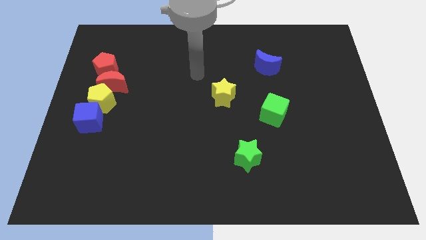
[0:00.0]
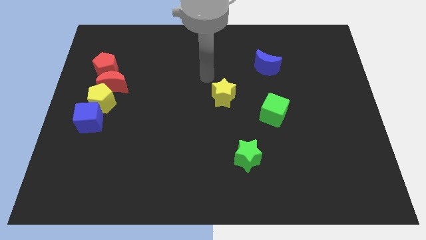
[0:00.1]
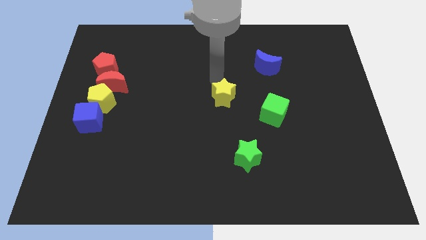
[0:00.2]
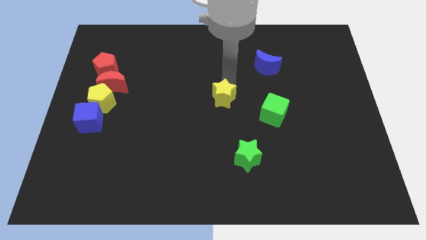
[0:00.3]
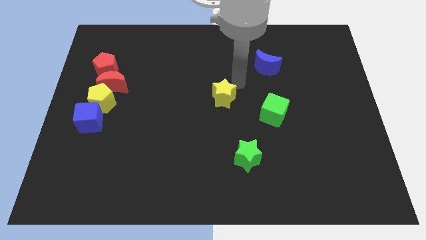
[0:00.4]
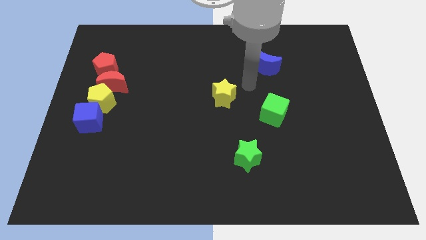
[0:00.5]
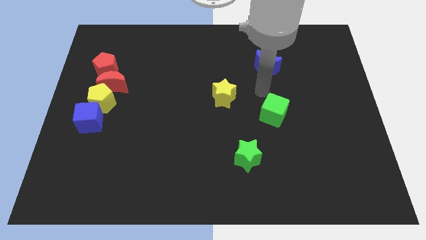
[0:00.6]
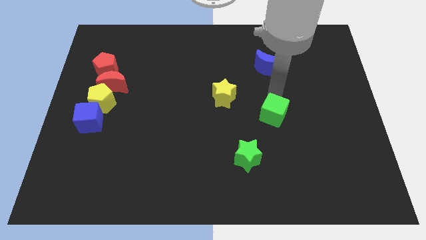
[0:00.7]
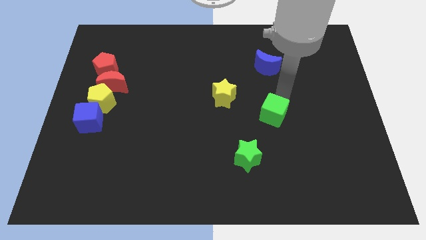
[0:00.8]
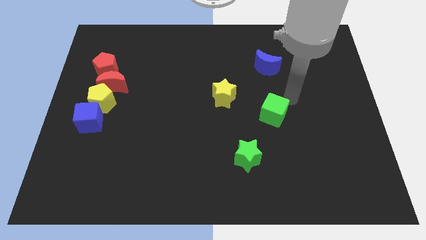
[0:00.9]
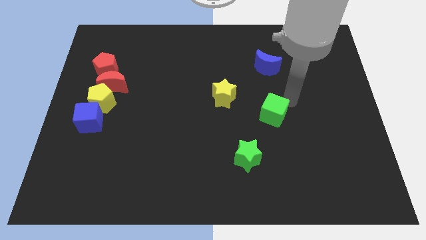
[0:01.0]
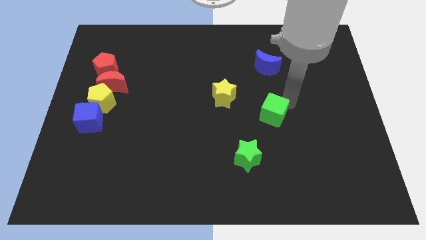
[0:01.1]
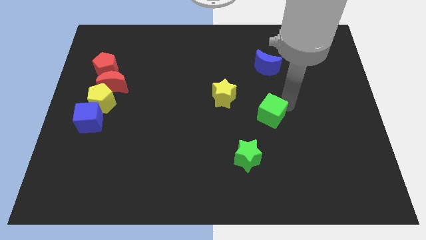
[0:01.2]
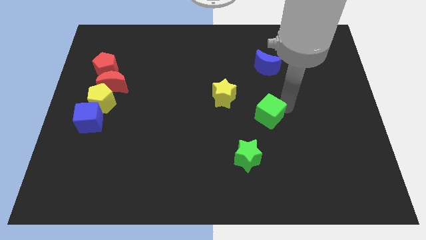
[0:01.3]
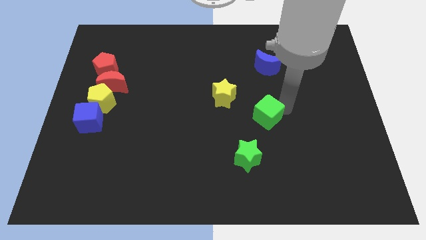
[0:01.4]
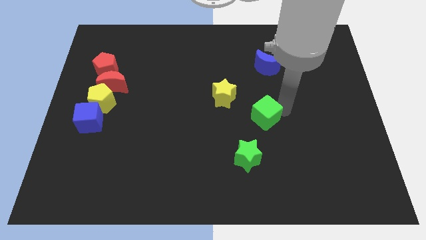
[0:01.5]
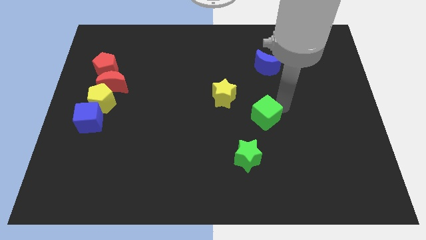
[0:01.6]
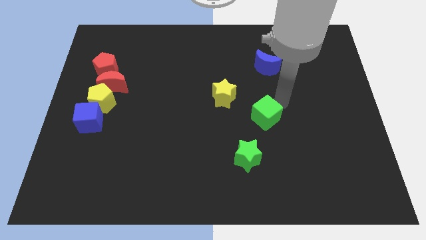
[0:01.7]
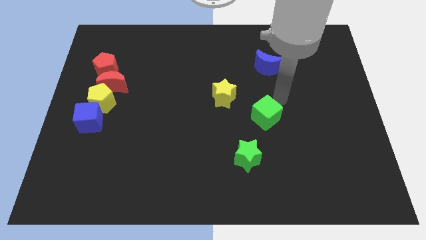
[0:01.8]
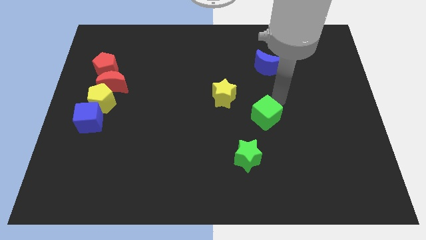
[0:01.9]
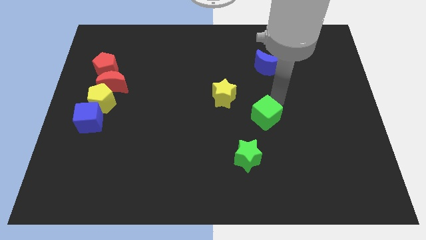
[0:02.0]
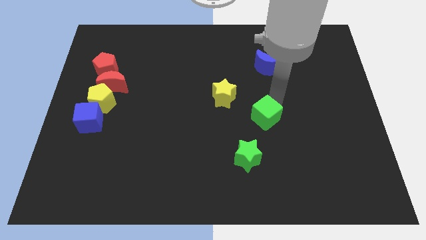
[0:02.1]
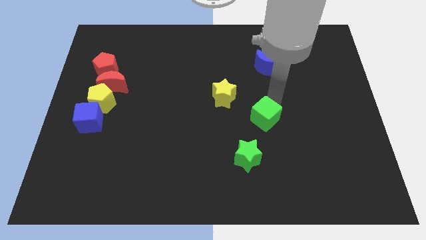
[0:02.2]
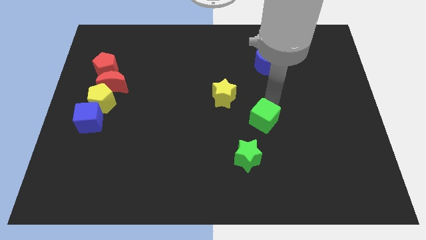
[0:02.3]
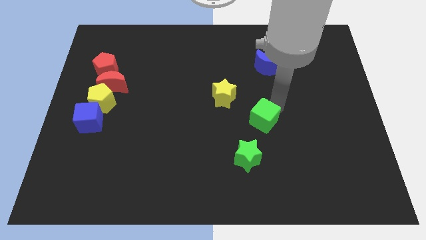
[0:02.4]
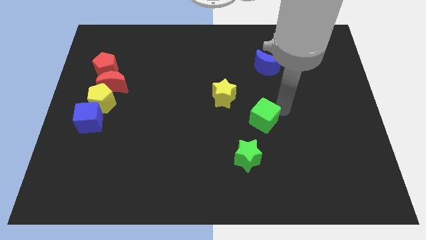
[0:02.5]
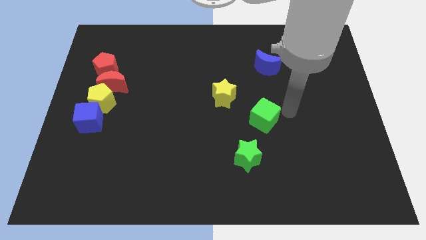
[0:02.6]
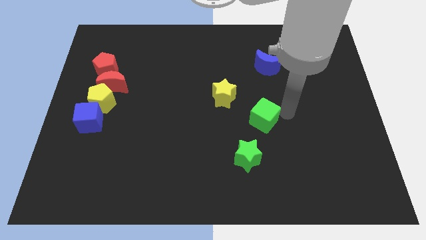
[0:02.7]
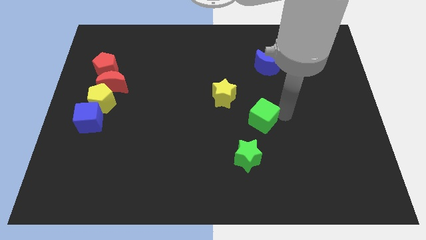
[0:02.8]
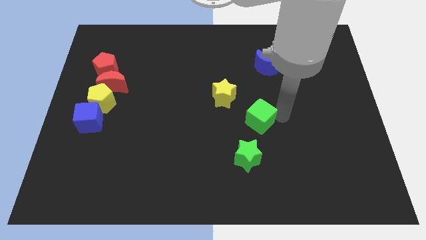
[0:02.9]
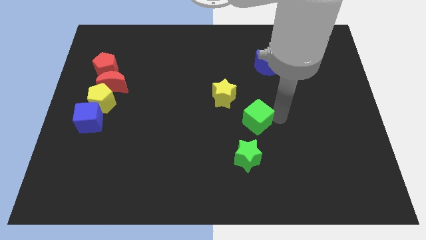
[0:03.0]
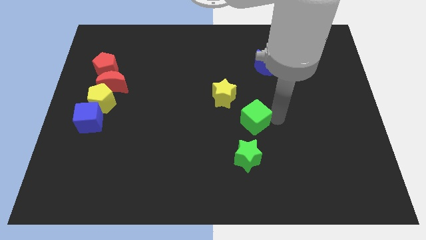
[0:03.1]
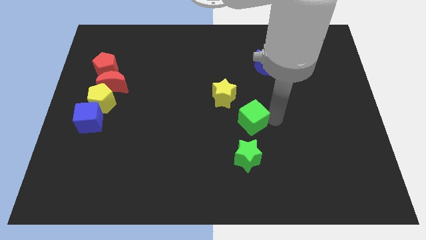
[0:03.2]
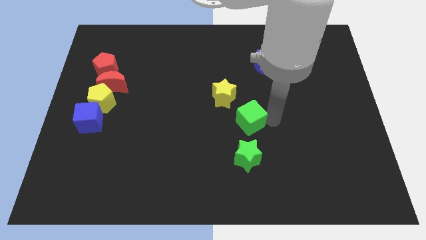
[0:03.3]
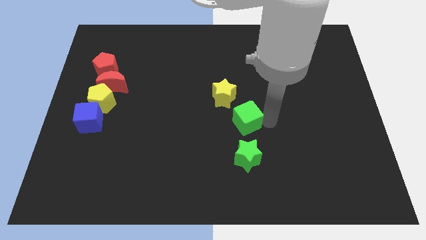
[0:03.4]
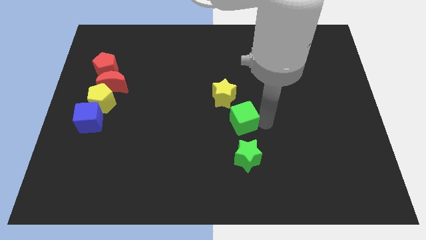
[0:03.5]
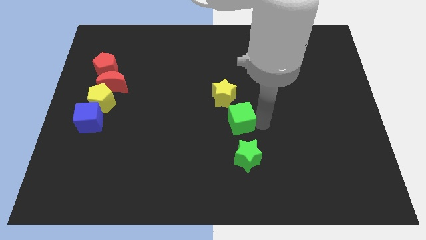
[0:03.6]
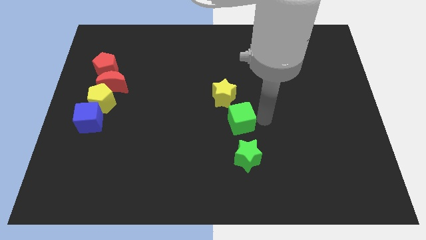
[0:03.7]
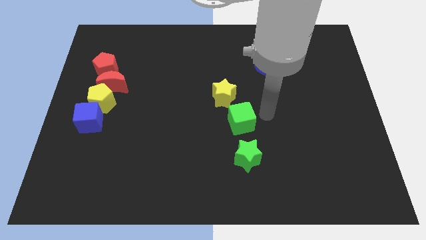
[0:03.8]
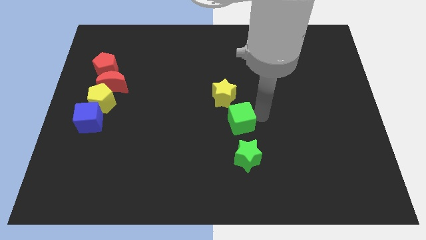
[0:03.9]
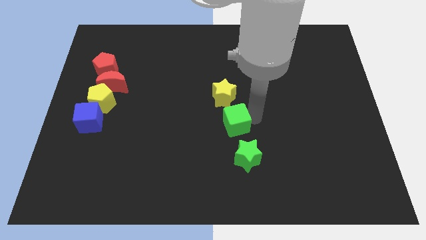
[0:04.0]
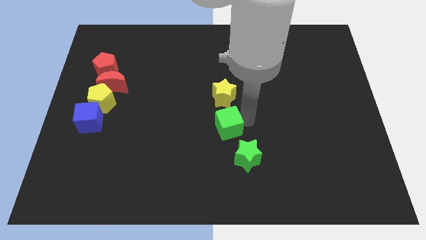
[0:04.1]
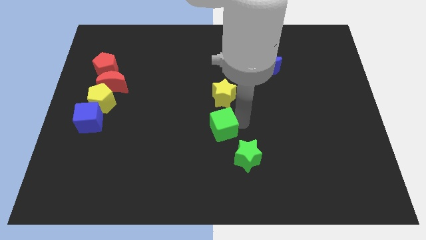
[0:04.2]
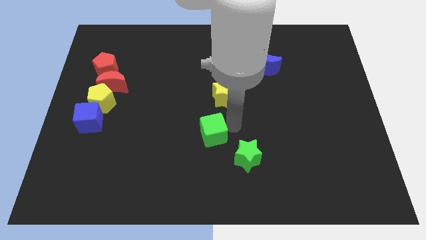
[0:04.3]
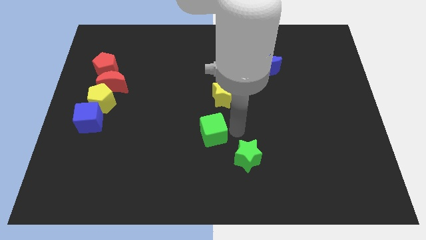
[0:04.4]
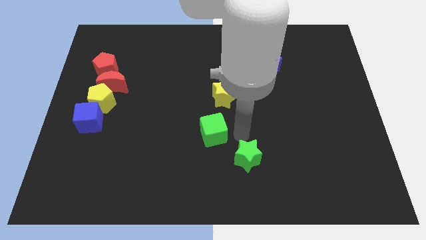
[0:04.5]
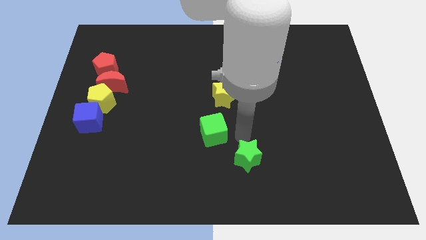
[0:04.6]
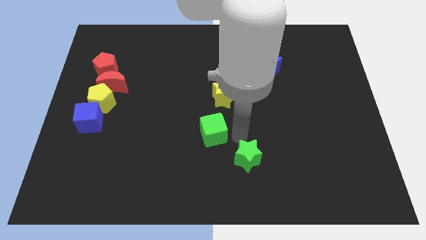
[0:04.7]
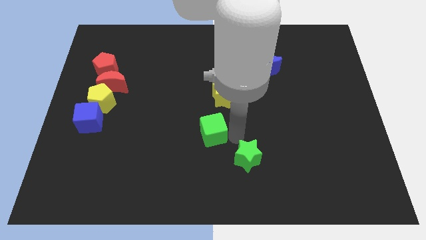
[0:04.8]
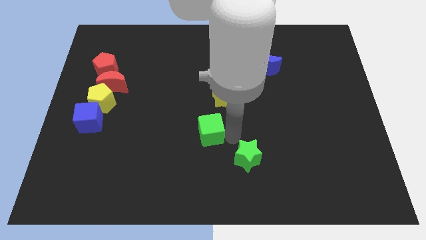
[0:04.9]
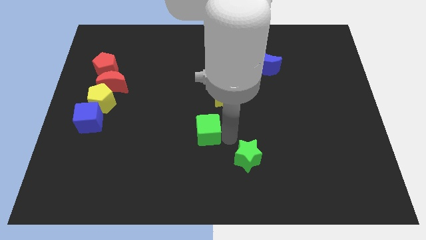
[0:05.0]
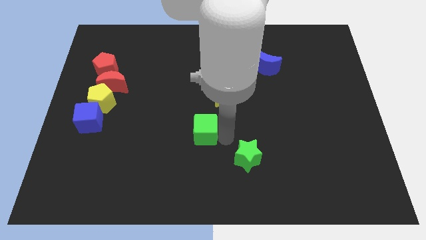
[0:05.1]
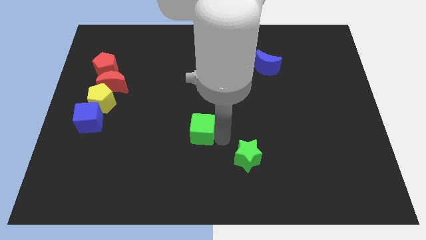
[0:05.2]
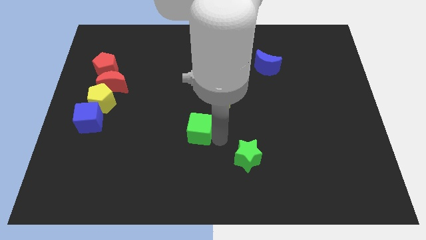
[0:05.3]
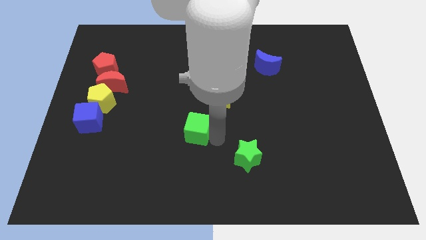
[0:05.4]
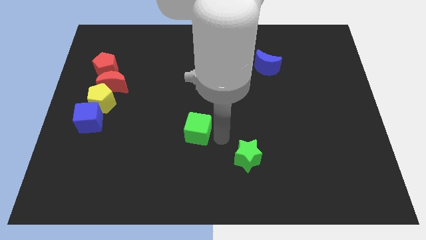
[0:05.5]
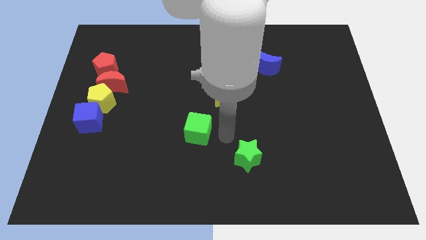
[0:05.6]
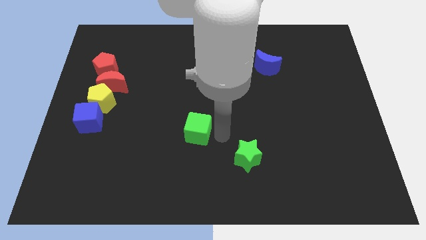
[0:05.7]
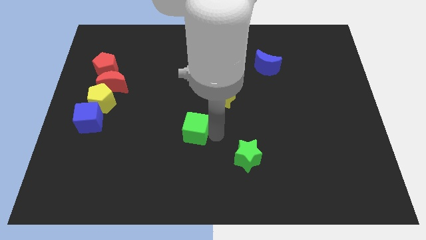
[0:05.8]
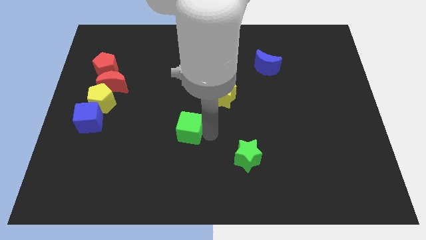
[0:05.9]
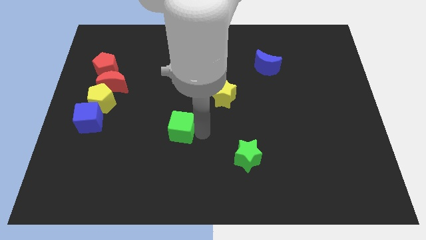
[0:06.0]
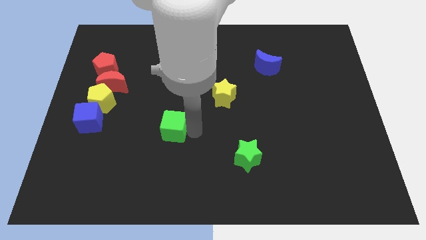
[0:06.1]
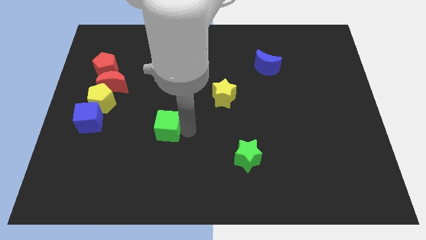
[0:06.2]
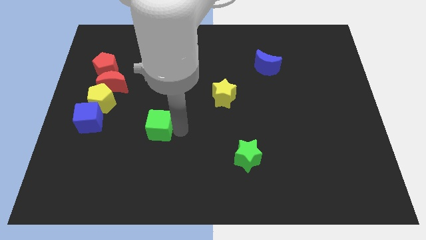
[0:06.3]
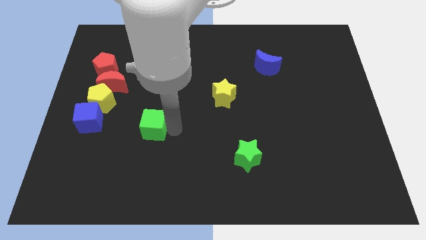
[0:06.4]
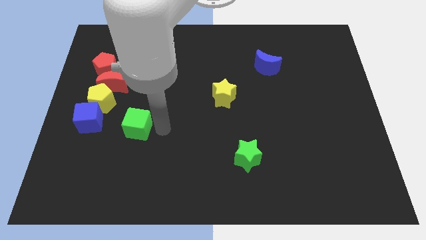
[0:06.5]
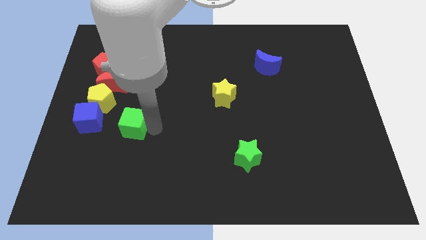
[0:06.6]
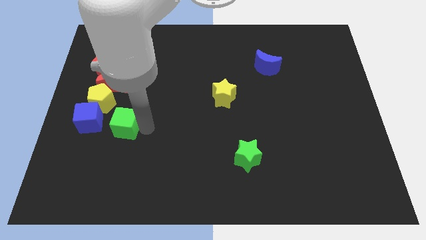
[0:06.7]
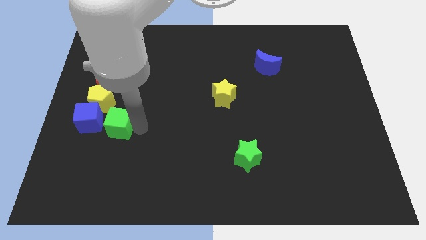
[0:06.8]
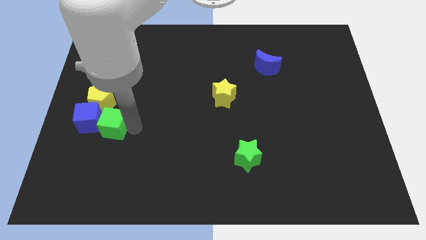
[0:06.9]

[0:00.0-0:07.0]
slide the green cube towards the blue cube
